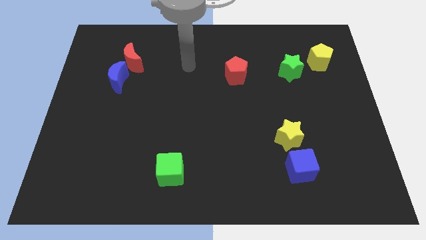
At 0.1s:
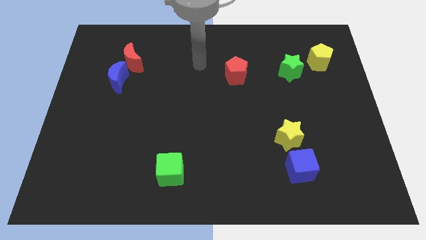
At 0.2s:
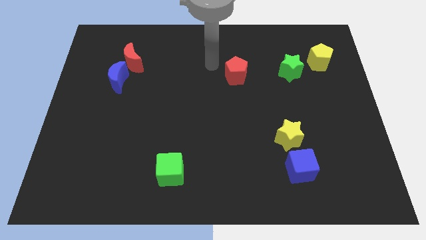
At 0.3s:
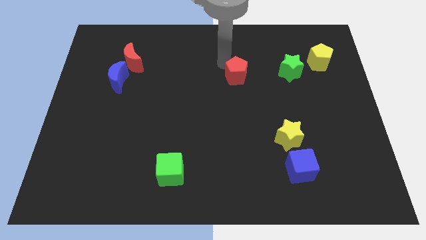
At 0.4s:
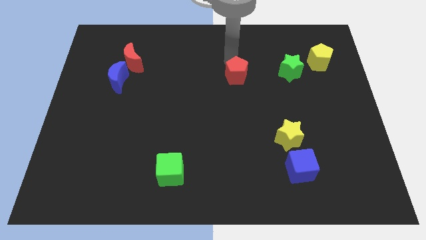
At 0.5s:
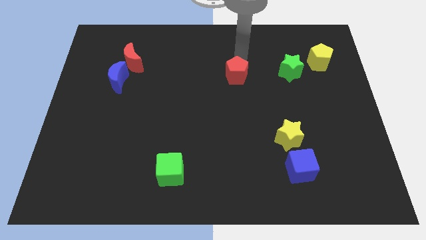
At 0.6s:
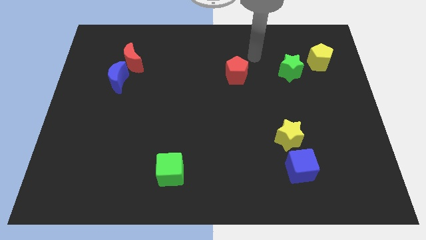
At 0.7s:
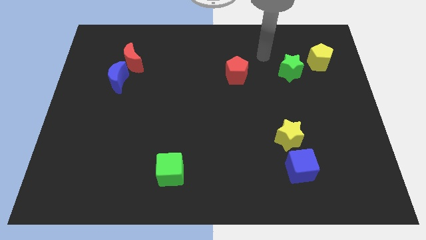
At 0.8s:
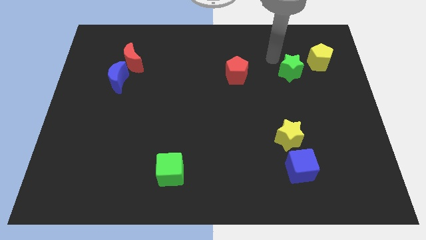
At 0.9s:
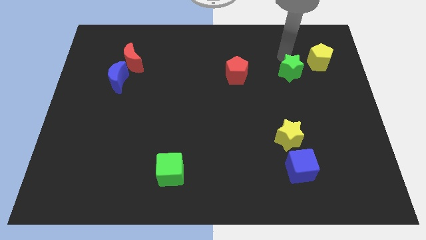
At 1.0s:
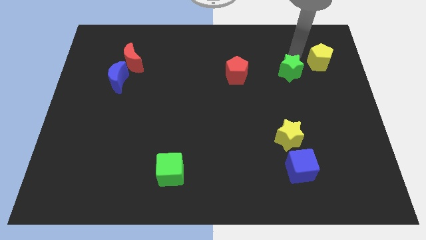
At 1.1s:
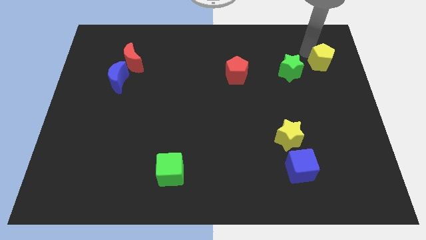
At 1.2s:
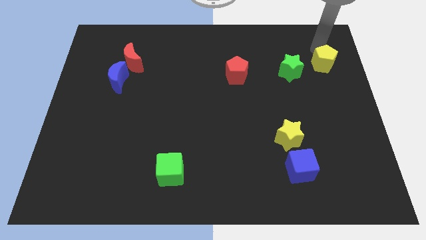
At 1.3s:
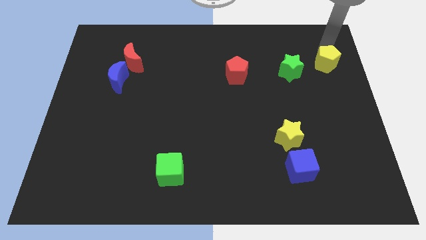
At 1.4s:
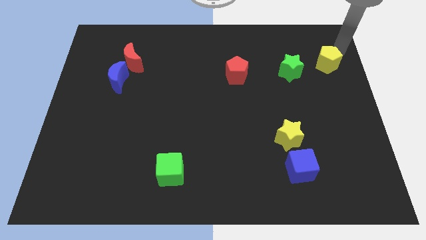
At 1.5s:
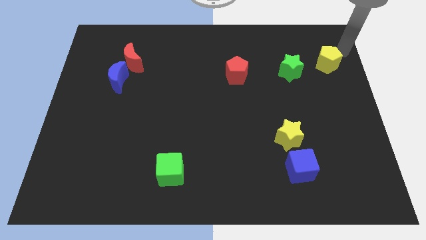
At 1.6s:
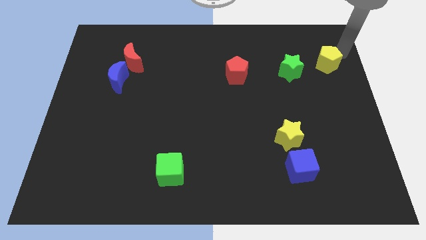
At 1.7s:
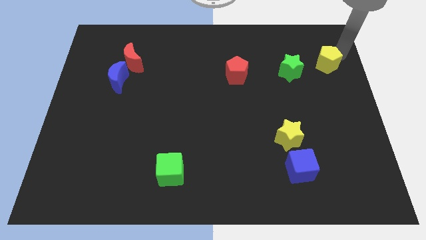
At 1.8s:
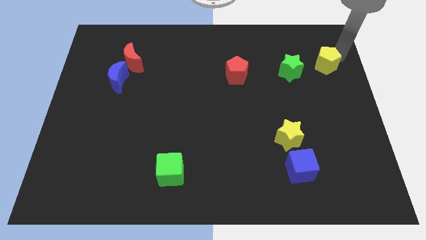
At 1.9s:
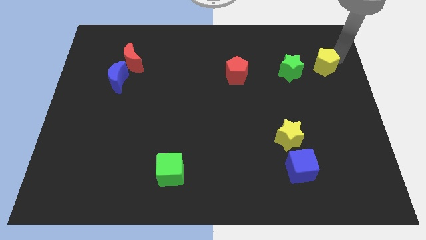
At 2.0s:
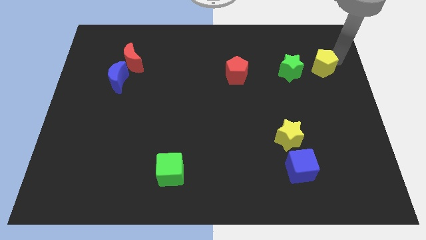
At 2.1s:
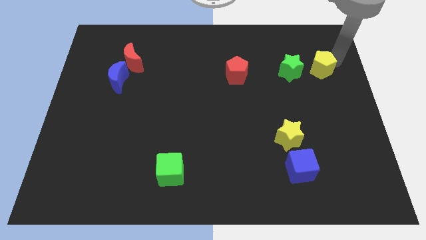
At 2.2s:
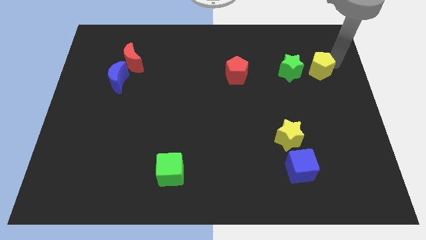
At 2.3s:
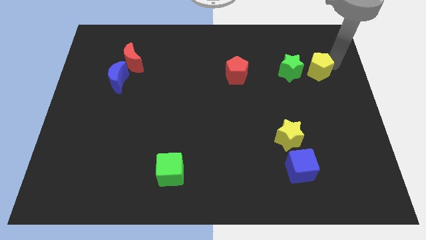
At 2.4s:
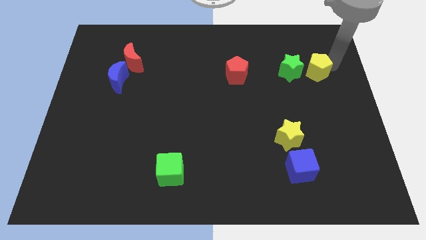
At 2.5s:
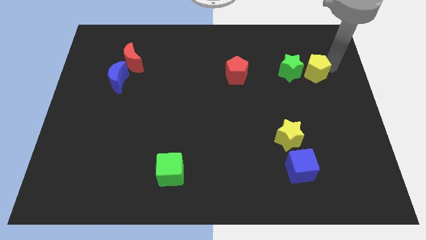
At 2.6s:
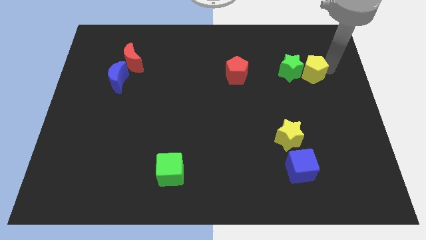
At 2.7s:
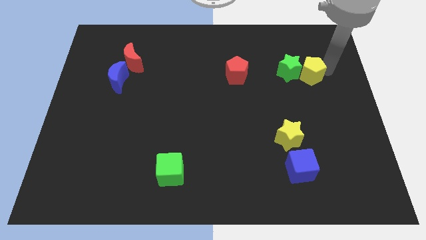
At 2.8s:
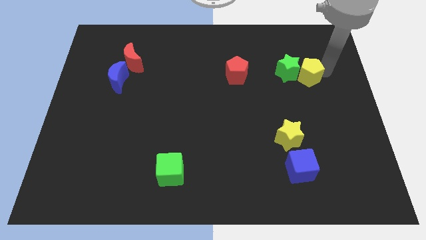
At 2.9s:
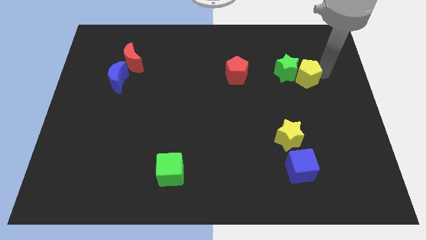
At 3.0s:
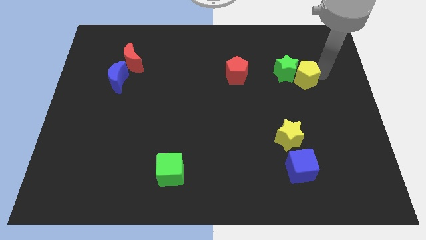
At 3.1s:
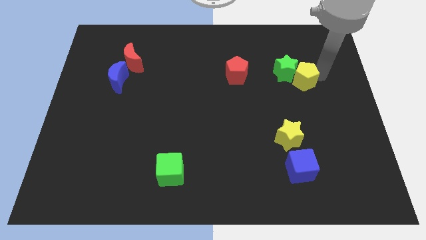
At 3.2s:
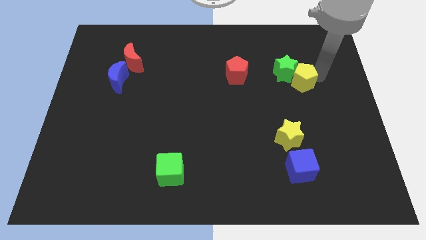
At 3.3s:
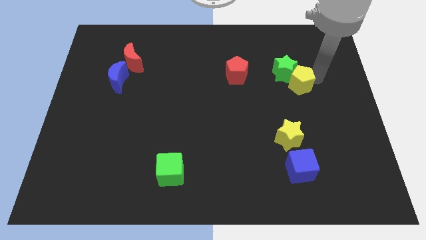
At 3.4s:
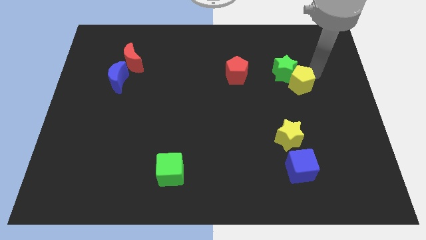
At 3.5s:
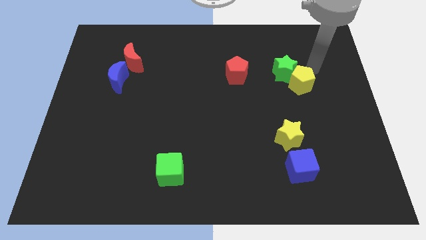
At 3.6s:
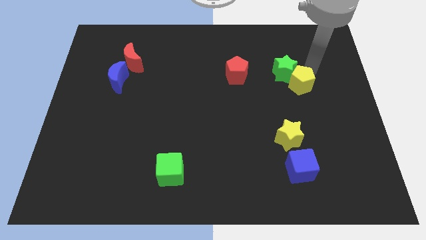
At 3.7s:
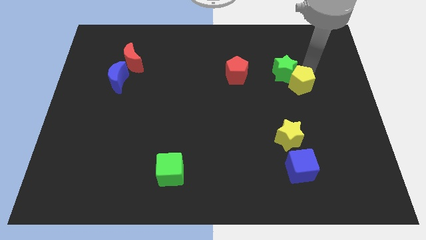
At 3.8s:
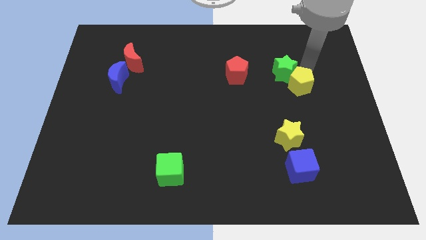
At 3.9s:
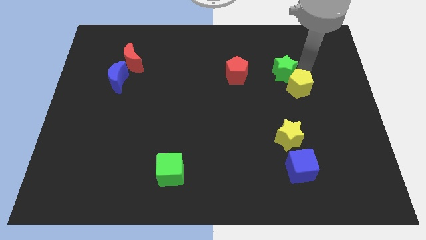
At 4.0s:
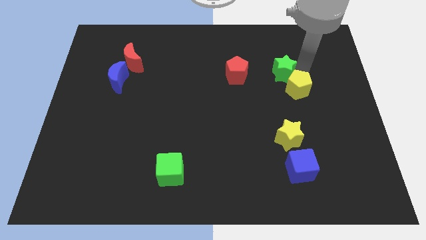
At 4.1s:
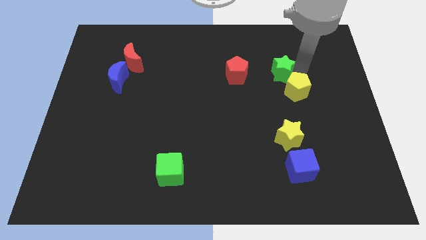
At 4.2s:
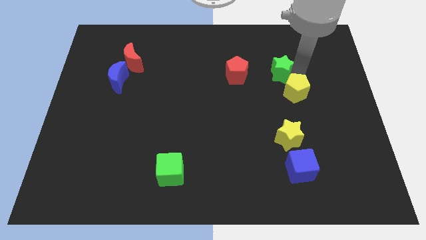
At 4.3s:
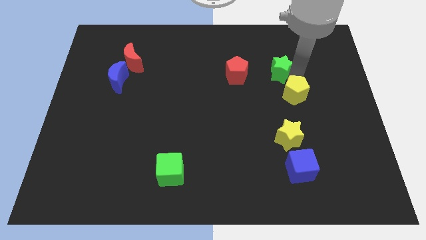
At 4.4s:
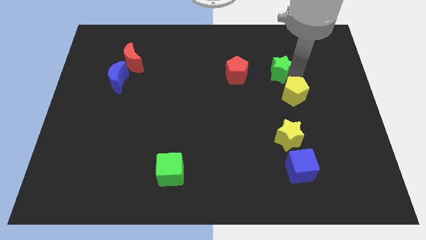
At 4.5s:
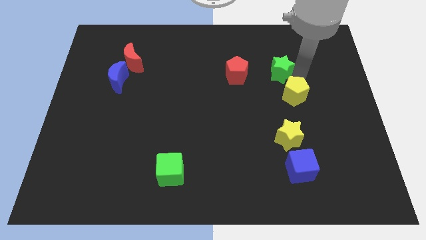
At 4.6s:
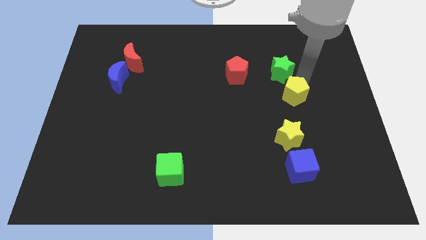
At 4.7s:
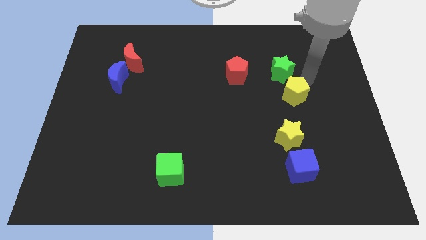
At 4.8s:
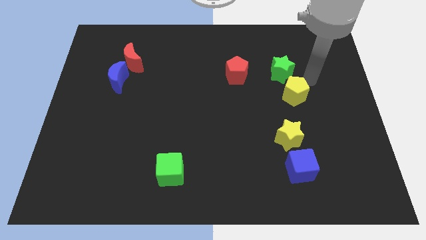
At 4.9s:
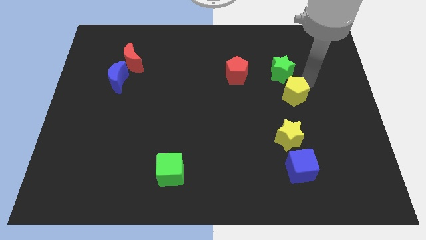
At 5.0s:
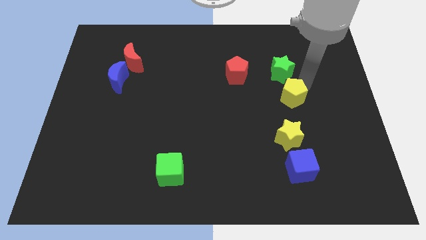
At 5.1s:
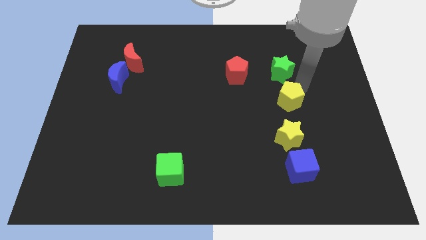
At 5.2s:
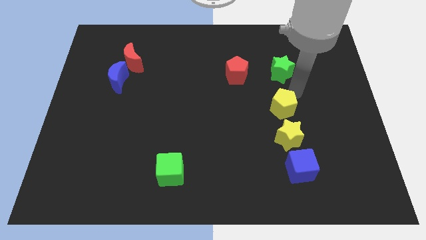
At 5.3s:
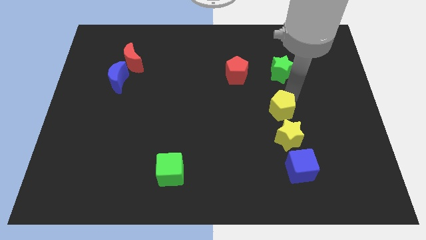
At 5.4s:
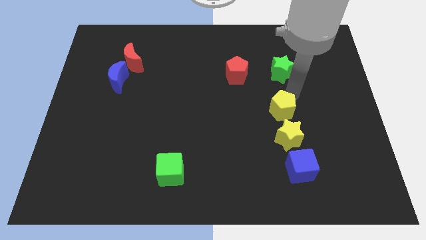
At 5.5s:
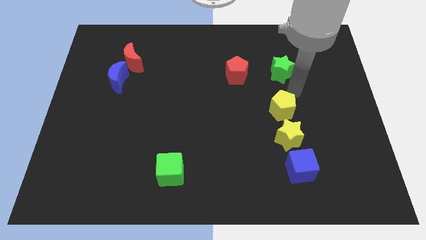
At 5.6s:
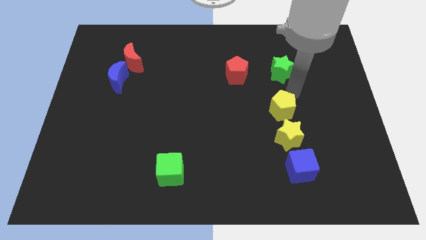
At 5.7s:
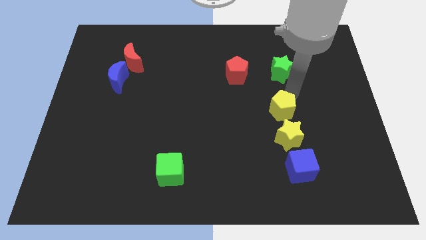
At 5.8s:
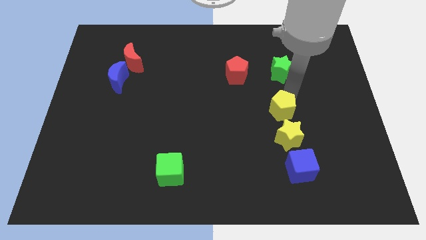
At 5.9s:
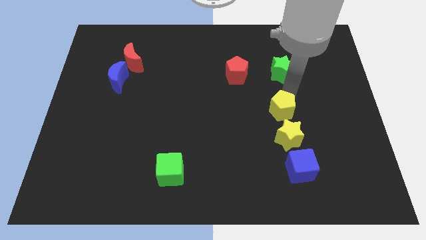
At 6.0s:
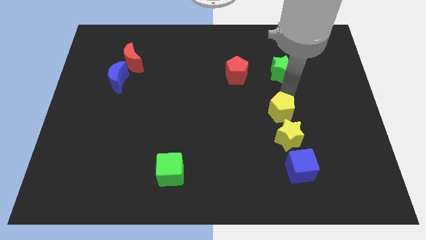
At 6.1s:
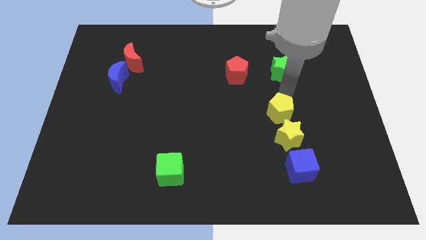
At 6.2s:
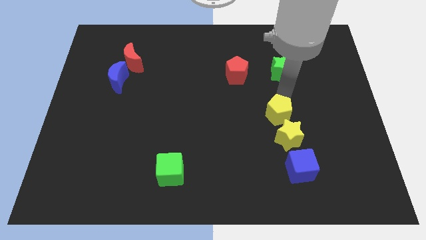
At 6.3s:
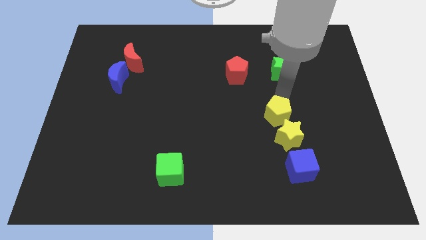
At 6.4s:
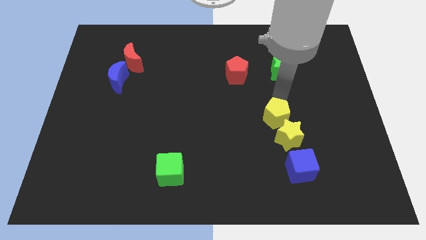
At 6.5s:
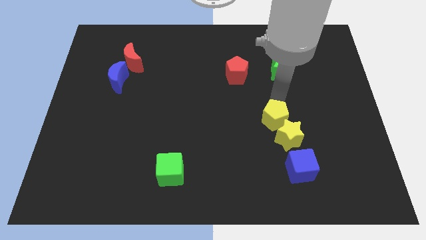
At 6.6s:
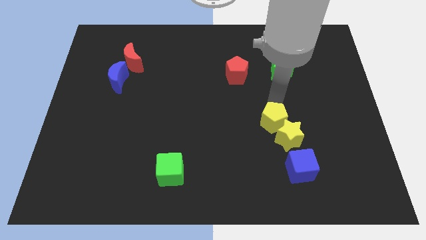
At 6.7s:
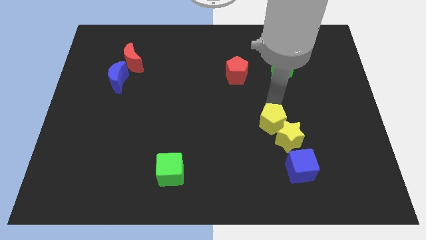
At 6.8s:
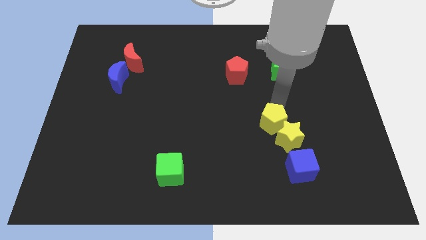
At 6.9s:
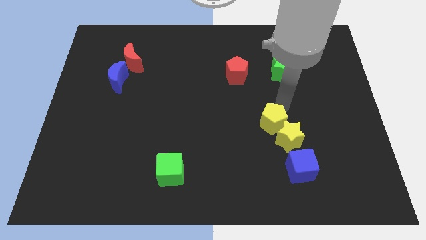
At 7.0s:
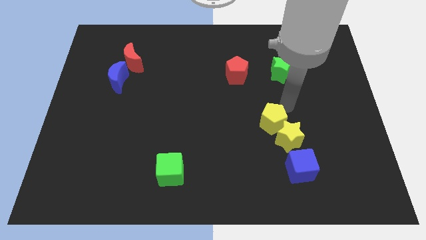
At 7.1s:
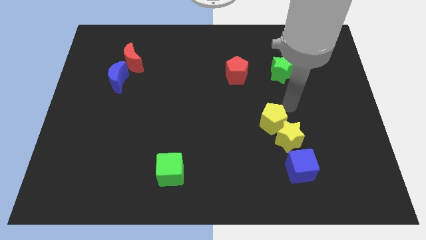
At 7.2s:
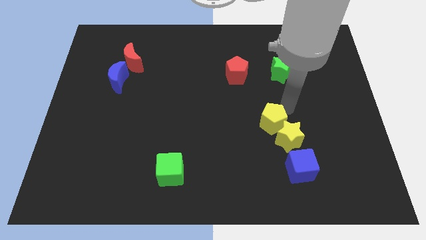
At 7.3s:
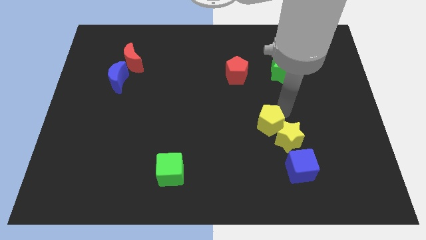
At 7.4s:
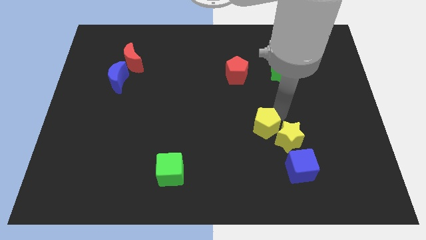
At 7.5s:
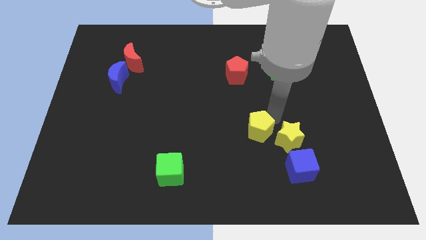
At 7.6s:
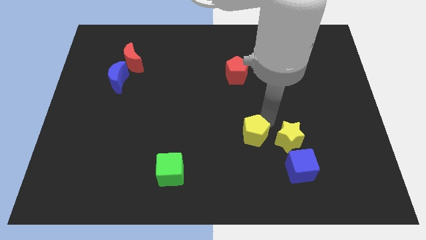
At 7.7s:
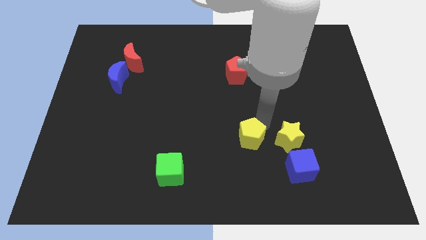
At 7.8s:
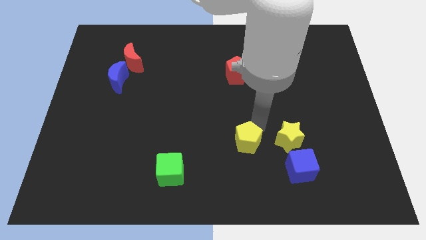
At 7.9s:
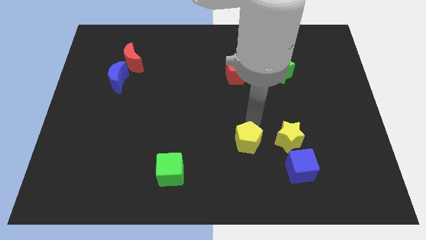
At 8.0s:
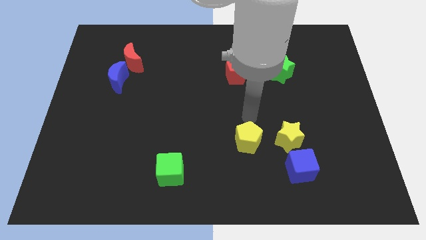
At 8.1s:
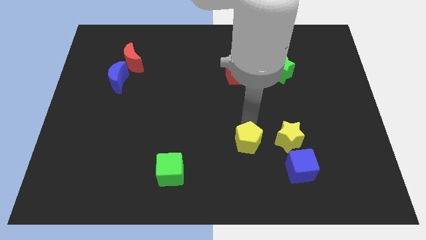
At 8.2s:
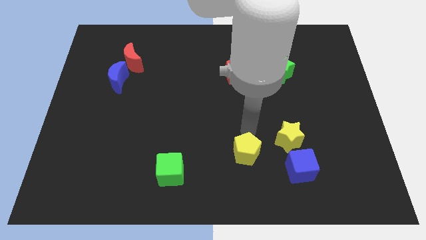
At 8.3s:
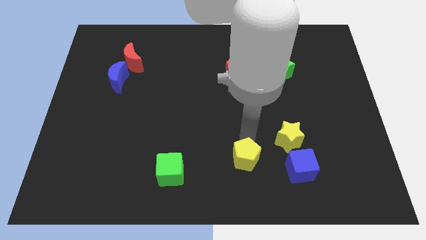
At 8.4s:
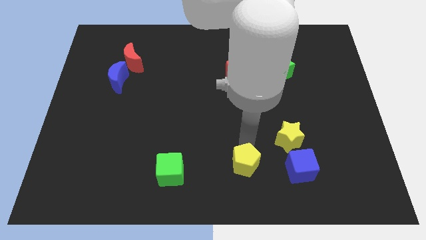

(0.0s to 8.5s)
push the yellow pentagon to the bottom side
